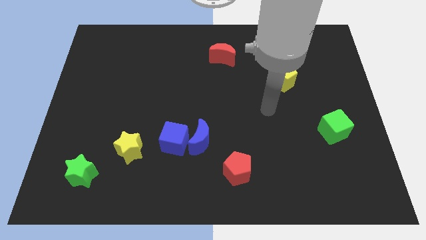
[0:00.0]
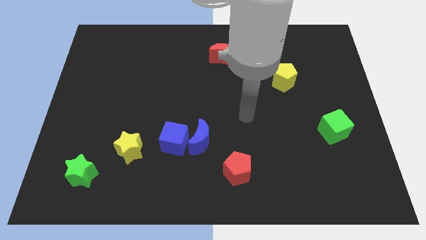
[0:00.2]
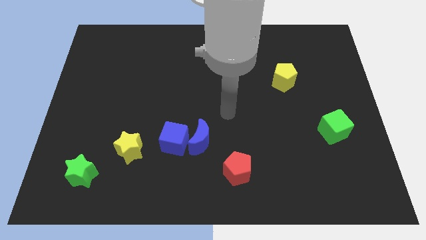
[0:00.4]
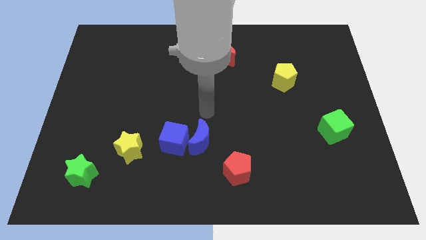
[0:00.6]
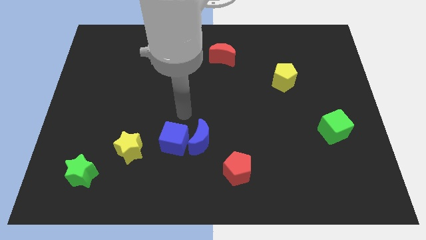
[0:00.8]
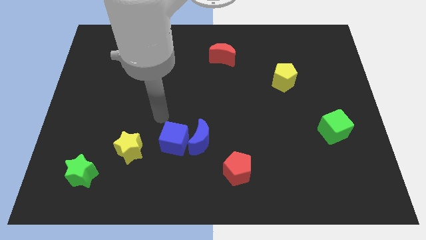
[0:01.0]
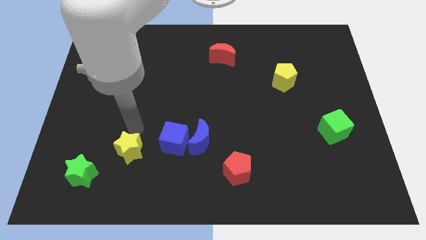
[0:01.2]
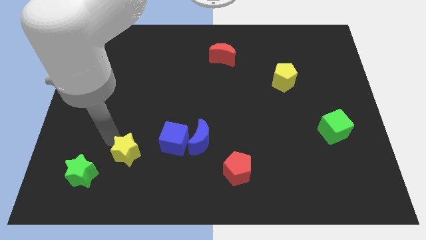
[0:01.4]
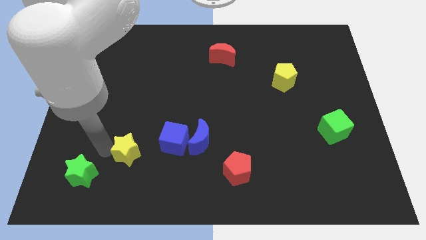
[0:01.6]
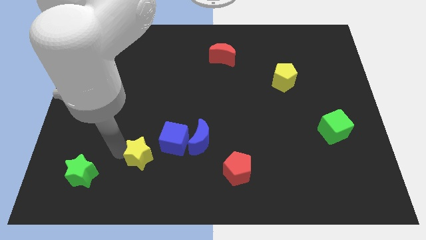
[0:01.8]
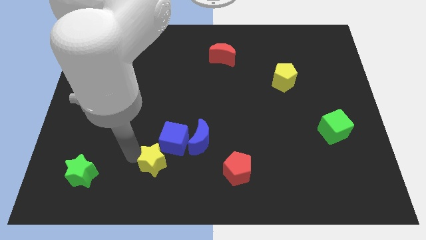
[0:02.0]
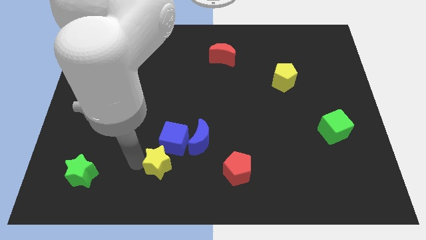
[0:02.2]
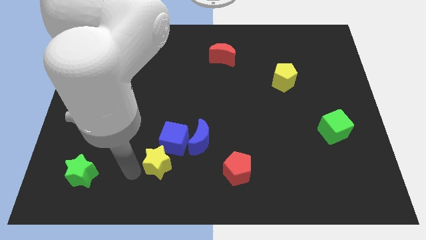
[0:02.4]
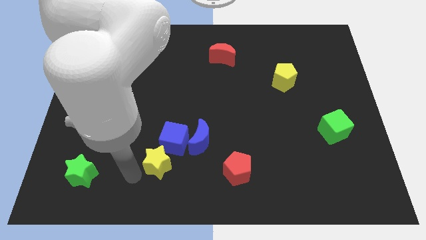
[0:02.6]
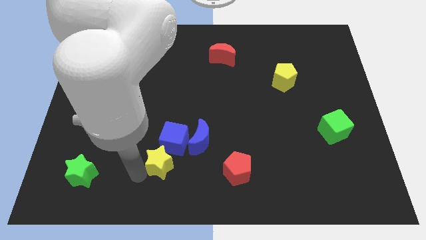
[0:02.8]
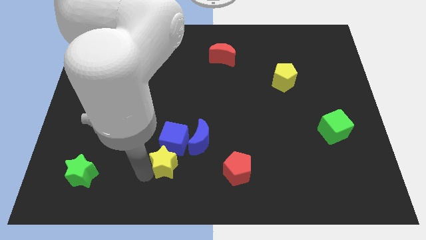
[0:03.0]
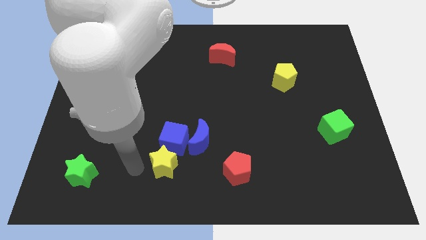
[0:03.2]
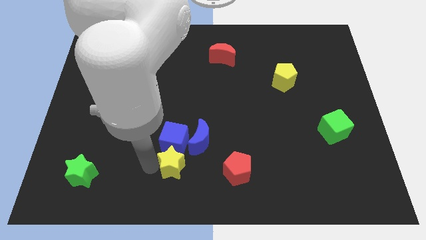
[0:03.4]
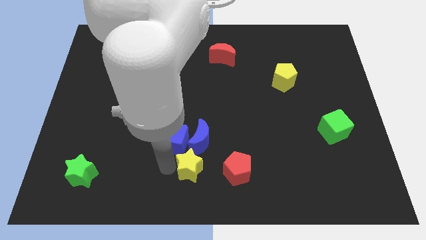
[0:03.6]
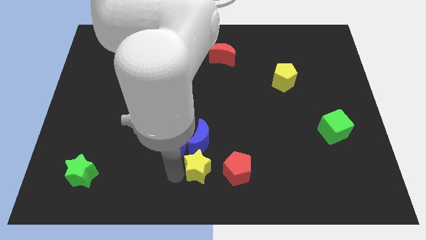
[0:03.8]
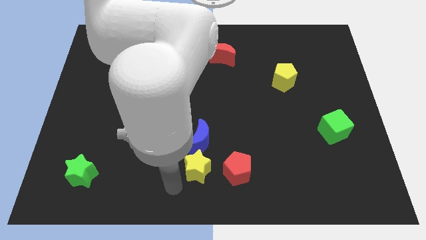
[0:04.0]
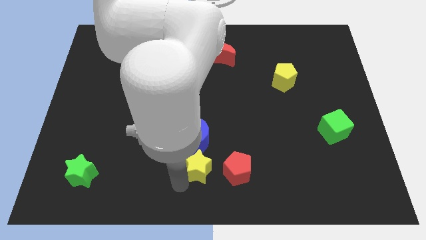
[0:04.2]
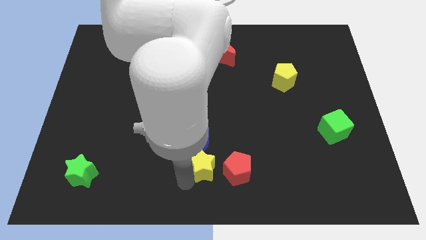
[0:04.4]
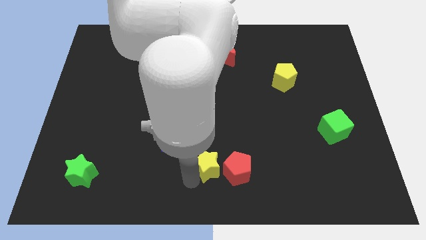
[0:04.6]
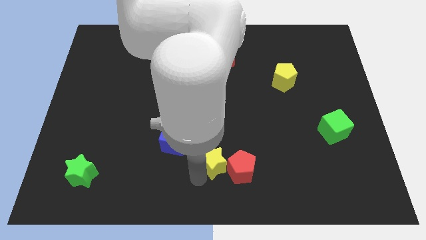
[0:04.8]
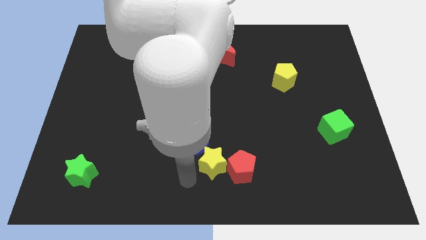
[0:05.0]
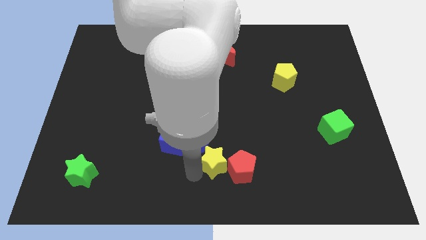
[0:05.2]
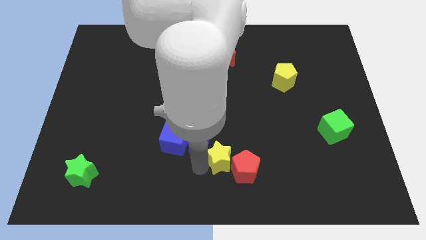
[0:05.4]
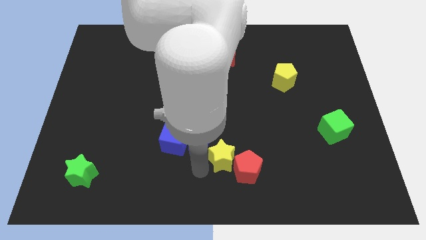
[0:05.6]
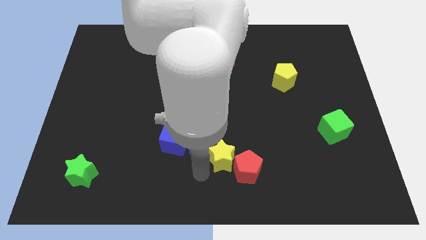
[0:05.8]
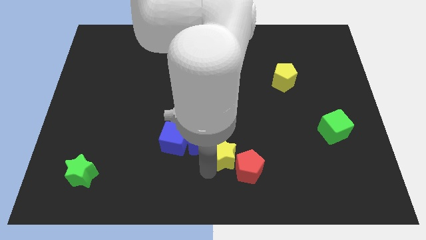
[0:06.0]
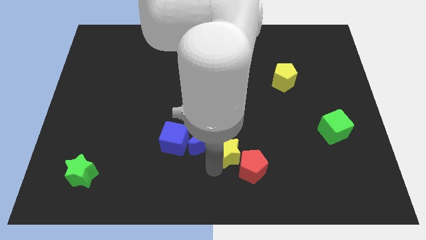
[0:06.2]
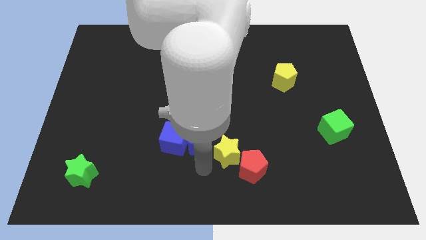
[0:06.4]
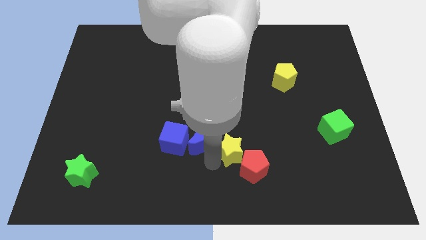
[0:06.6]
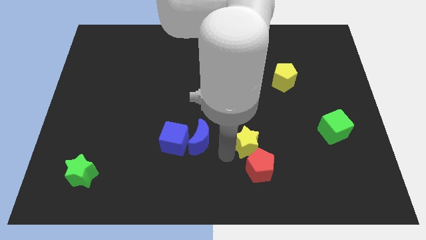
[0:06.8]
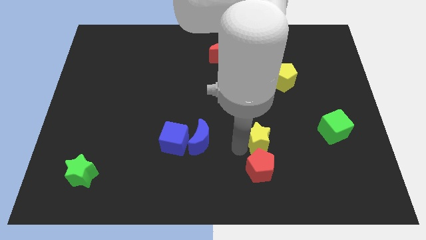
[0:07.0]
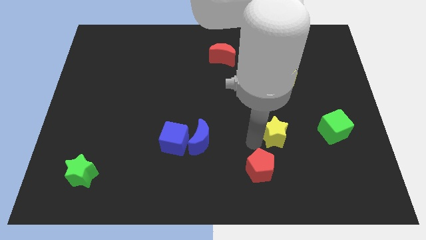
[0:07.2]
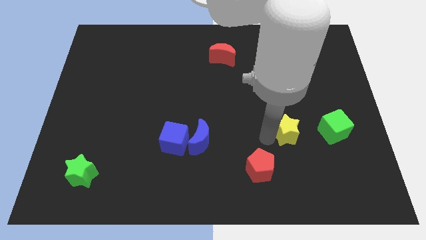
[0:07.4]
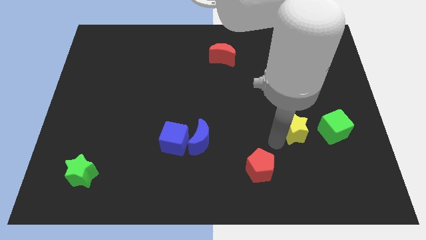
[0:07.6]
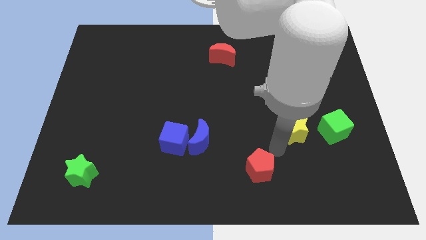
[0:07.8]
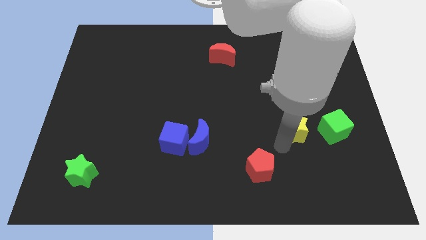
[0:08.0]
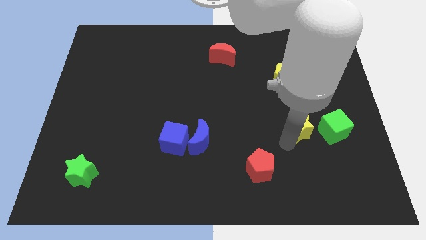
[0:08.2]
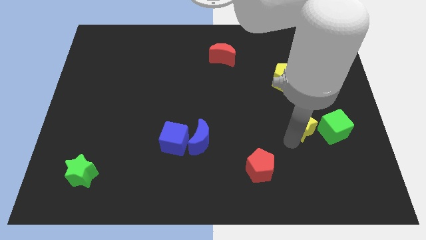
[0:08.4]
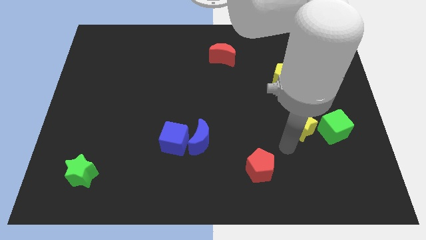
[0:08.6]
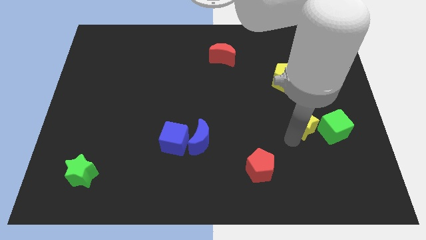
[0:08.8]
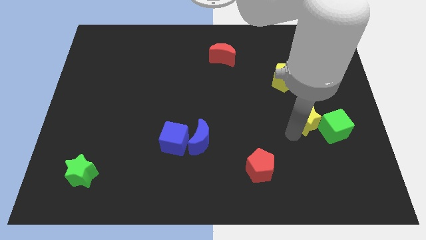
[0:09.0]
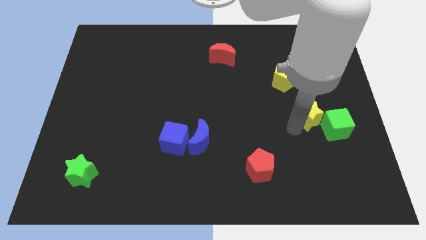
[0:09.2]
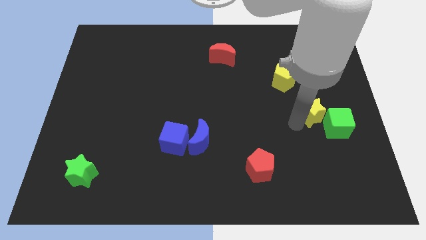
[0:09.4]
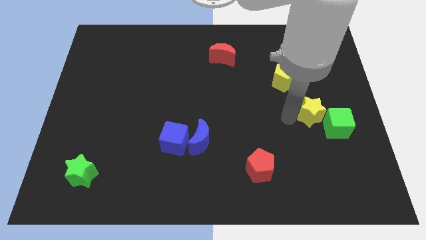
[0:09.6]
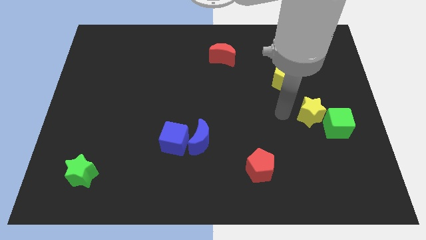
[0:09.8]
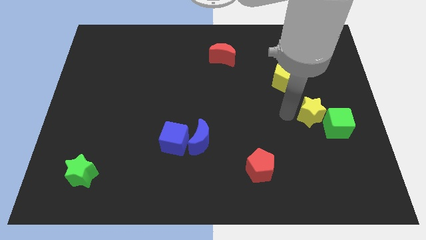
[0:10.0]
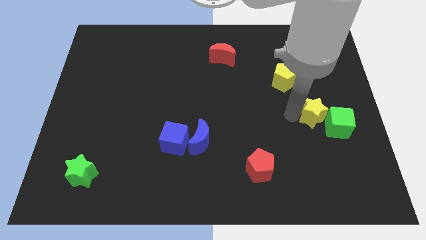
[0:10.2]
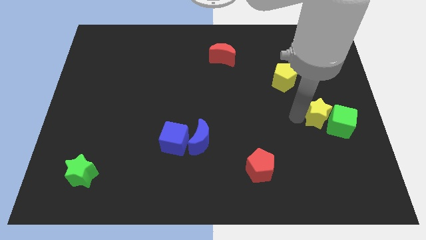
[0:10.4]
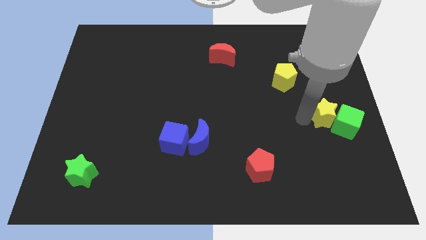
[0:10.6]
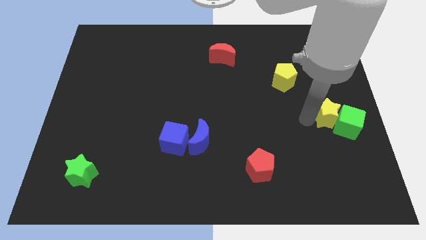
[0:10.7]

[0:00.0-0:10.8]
push the yellow star to the right side
